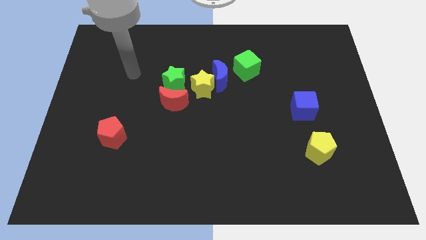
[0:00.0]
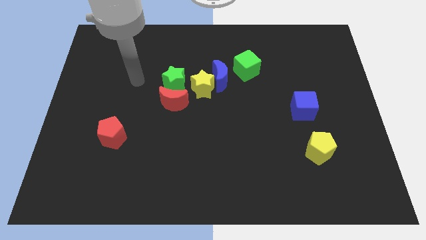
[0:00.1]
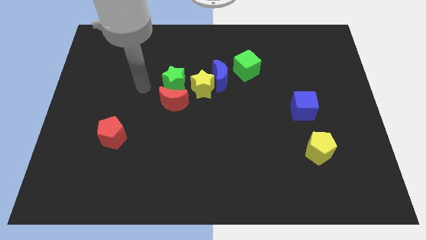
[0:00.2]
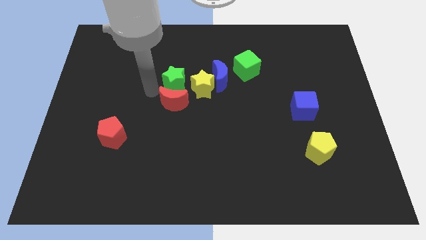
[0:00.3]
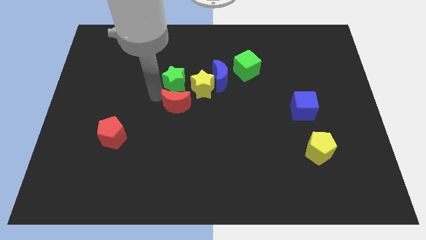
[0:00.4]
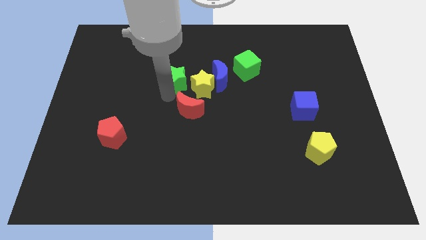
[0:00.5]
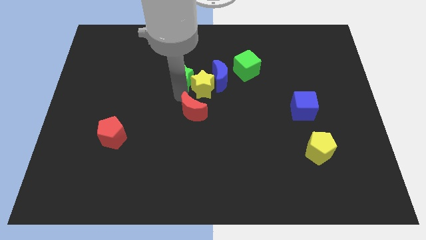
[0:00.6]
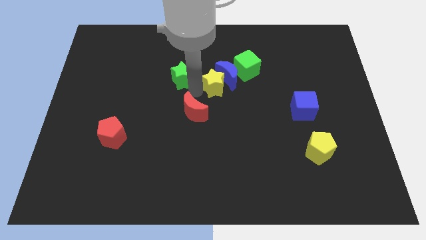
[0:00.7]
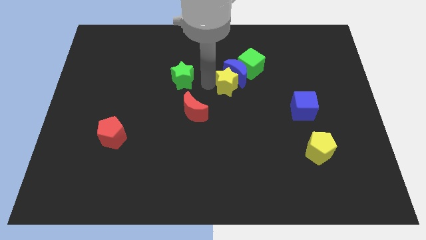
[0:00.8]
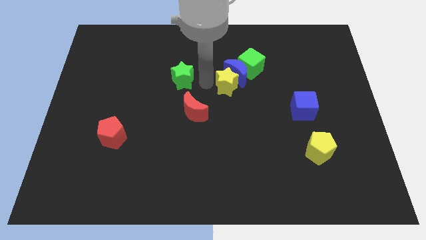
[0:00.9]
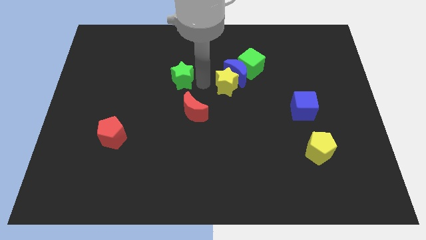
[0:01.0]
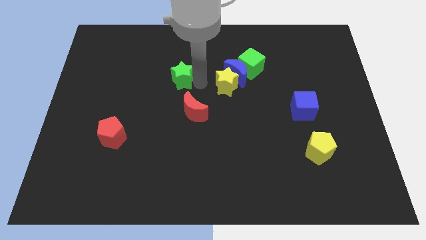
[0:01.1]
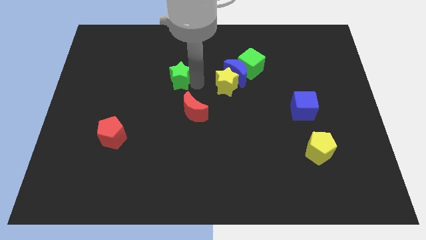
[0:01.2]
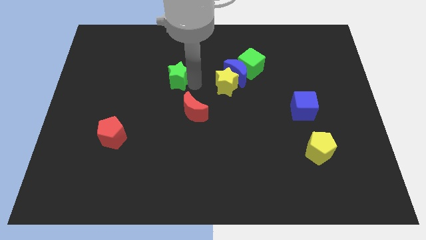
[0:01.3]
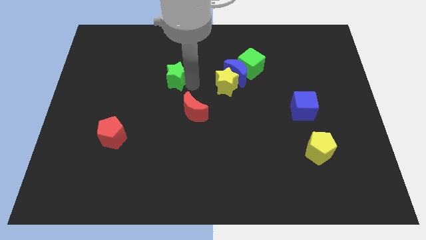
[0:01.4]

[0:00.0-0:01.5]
move the green star away from the red moon and yellow star

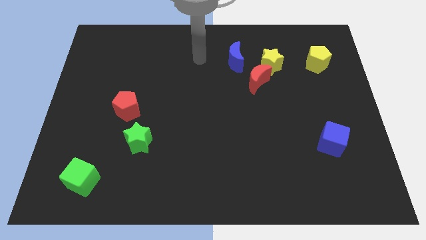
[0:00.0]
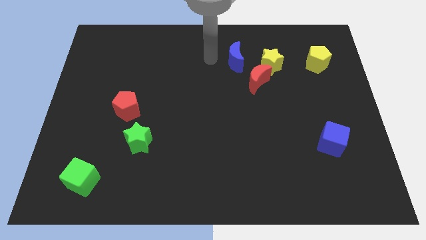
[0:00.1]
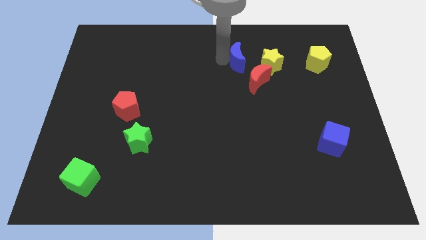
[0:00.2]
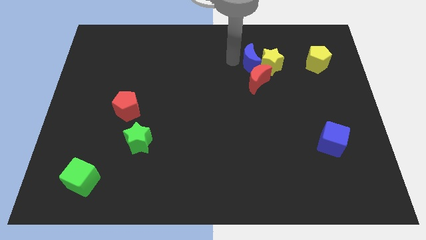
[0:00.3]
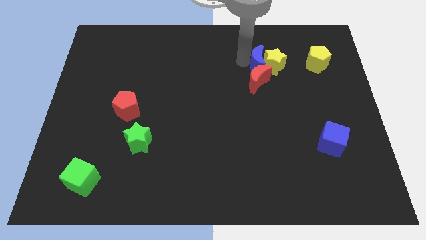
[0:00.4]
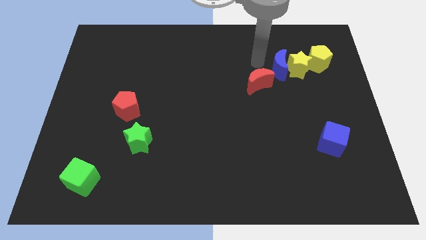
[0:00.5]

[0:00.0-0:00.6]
separate the red moon from the yellow star and blue moon

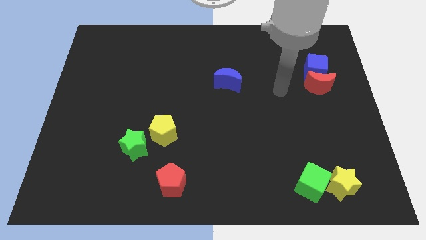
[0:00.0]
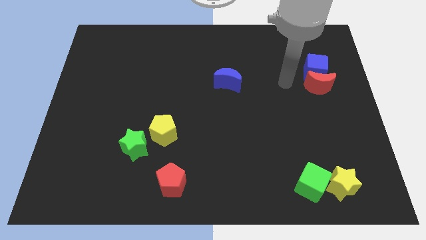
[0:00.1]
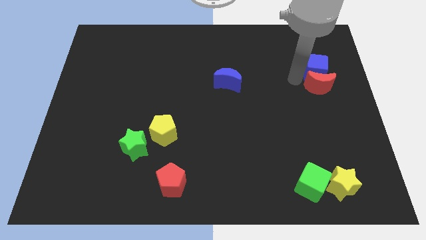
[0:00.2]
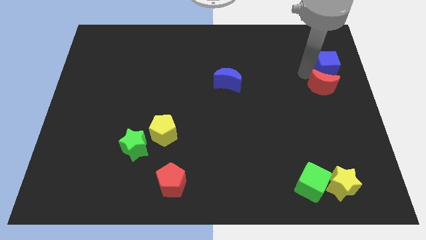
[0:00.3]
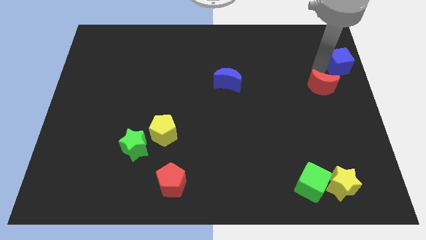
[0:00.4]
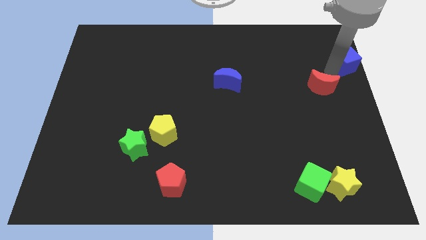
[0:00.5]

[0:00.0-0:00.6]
move the red moon away from the blue cube

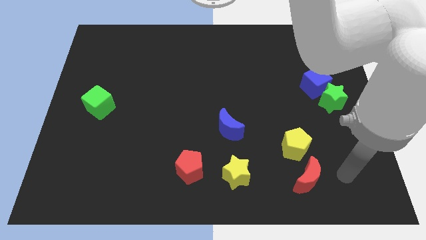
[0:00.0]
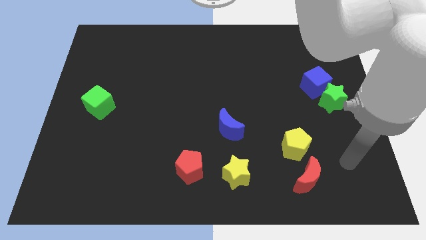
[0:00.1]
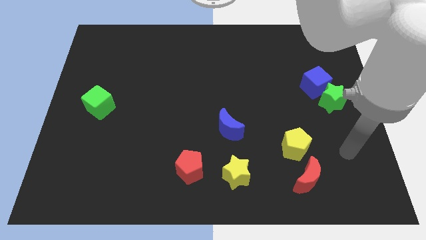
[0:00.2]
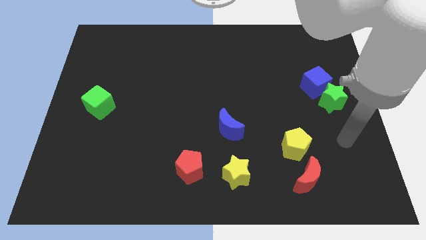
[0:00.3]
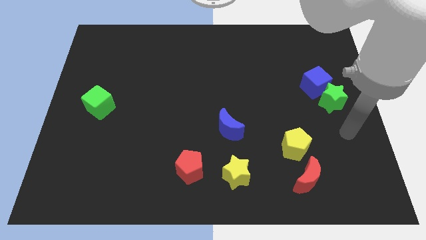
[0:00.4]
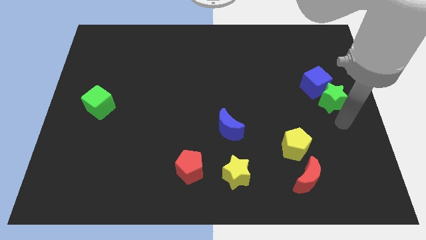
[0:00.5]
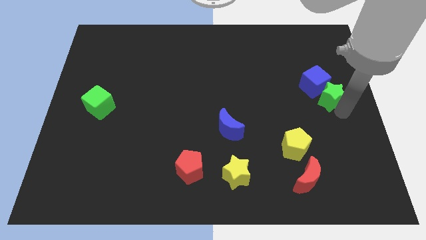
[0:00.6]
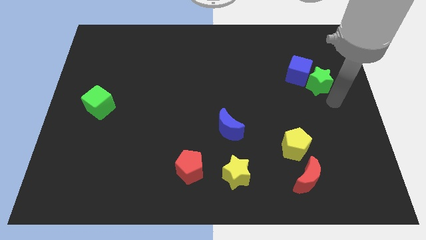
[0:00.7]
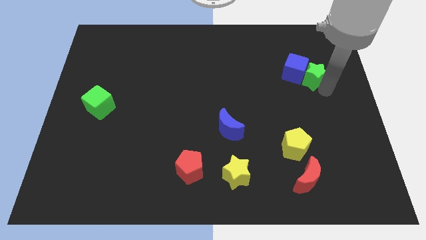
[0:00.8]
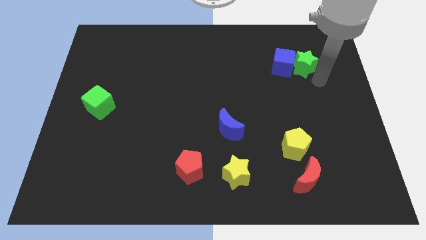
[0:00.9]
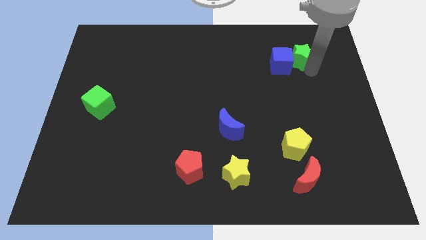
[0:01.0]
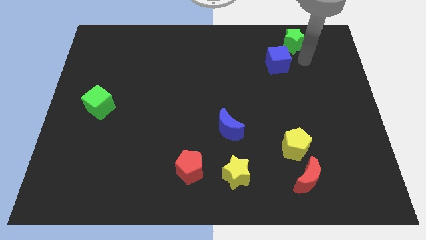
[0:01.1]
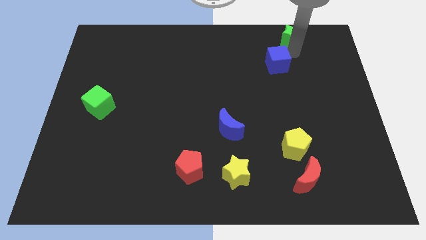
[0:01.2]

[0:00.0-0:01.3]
move the blue cube away from the green star

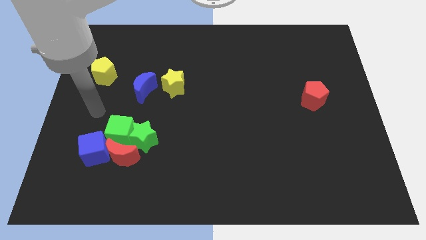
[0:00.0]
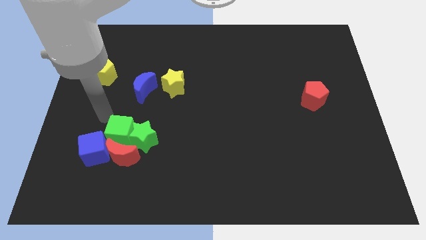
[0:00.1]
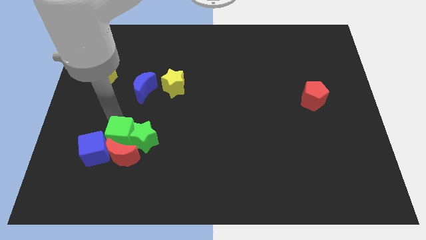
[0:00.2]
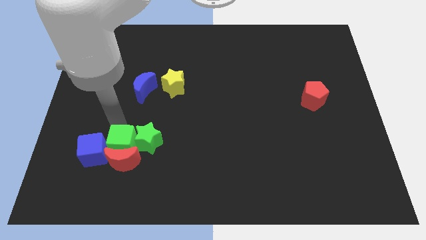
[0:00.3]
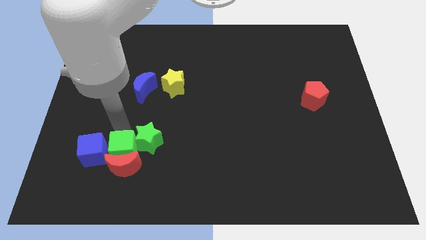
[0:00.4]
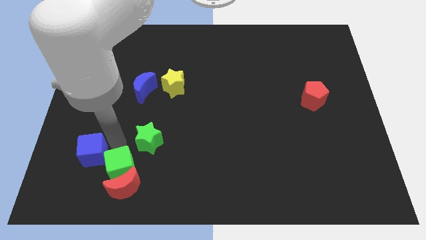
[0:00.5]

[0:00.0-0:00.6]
pull the green star apart from the green cube and red moon

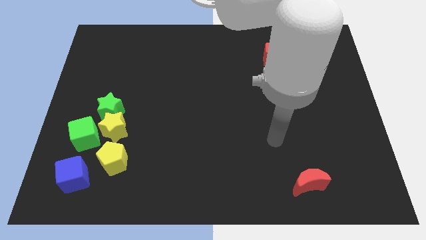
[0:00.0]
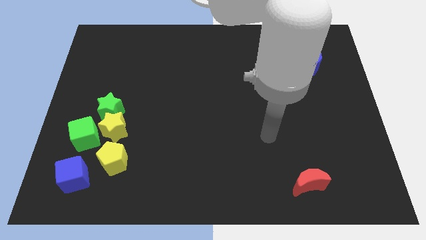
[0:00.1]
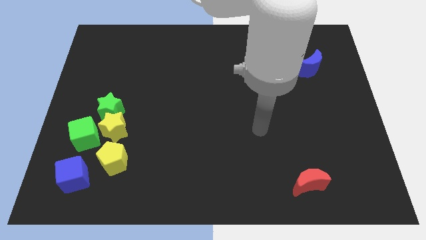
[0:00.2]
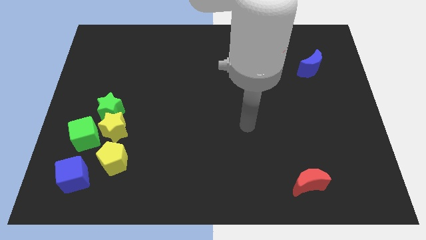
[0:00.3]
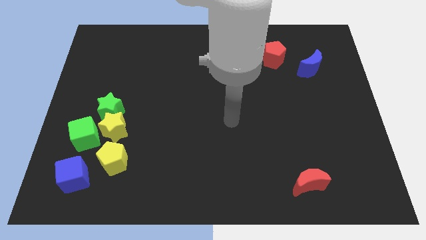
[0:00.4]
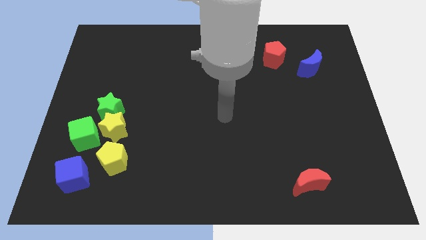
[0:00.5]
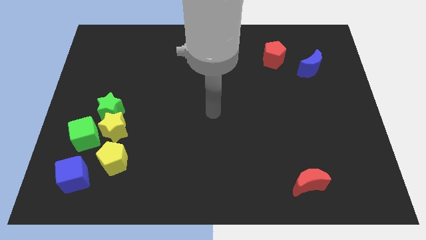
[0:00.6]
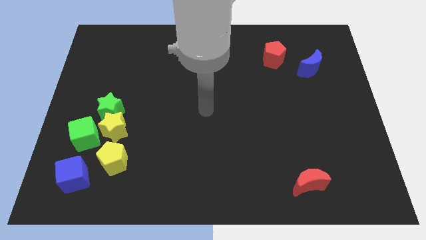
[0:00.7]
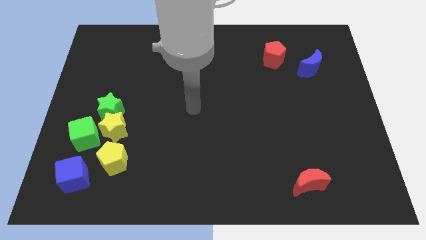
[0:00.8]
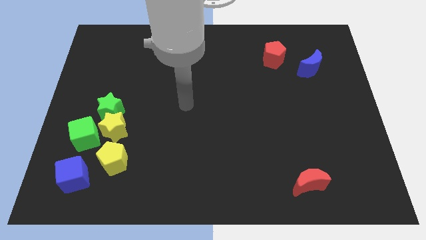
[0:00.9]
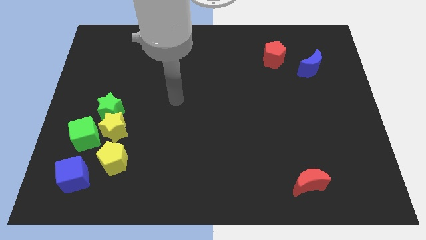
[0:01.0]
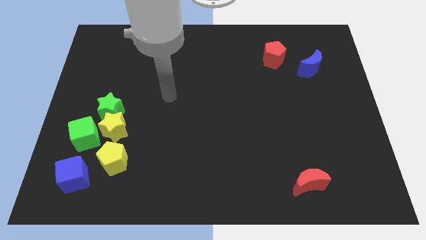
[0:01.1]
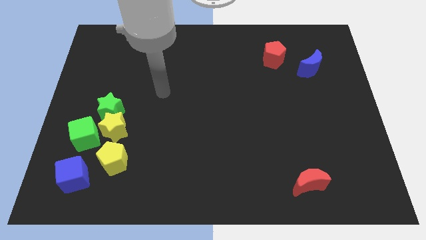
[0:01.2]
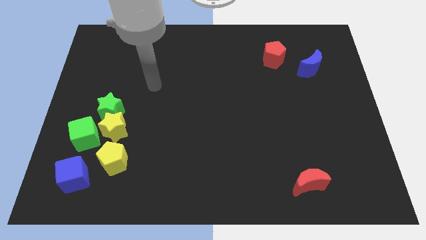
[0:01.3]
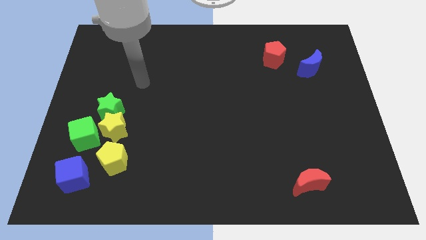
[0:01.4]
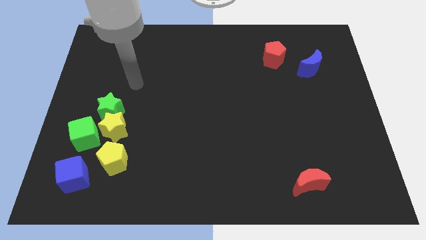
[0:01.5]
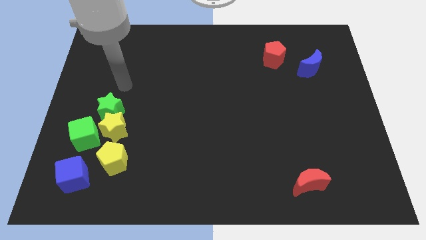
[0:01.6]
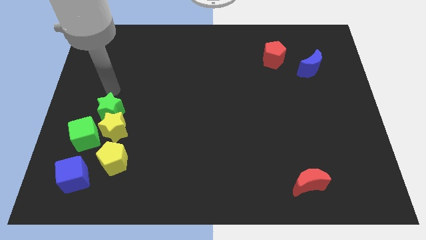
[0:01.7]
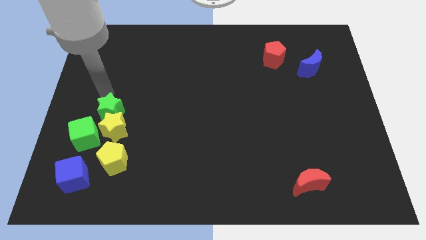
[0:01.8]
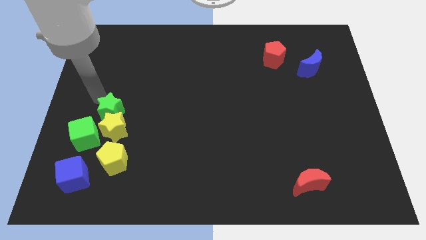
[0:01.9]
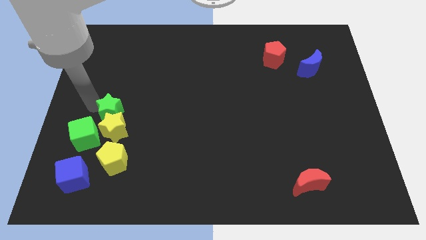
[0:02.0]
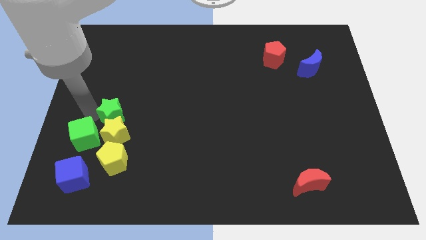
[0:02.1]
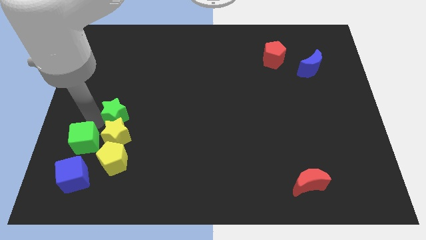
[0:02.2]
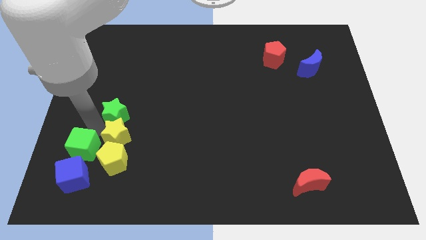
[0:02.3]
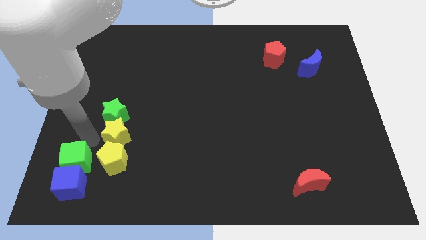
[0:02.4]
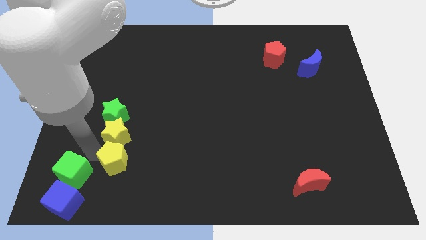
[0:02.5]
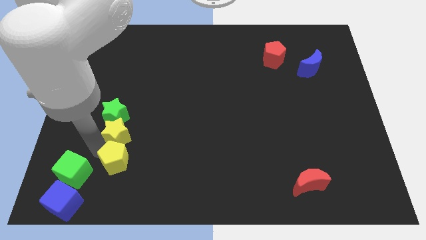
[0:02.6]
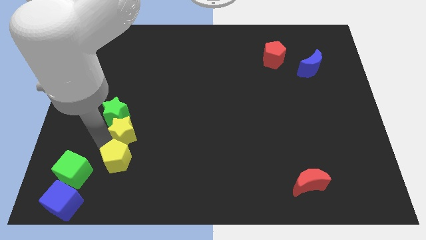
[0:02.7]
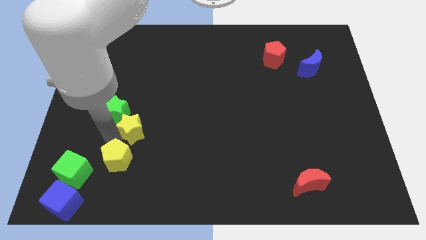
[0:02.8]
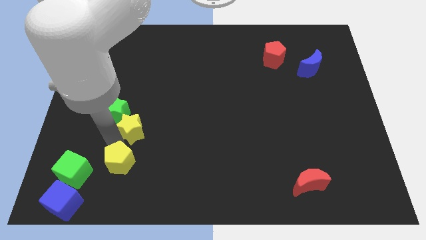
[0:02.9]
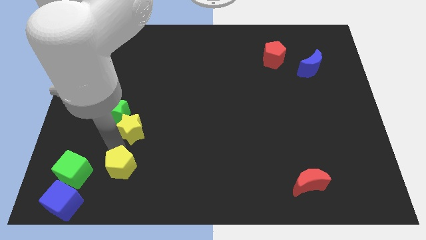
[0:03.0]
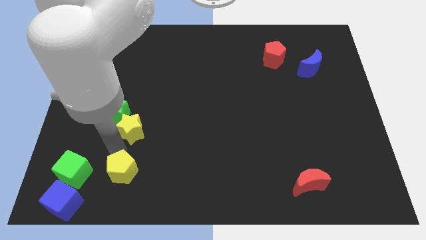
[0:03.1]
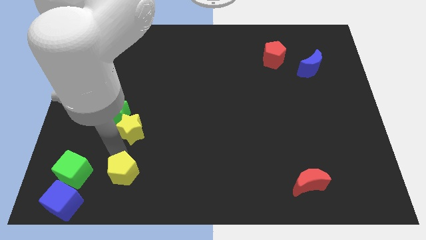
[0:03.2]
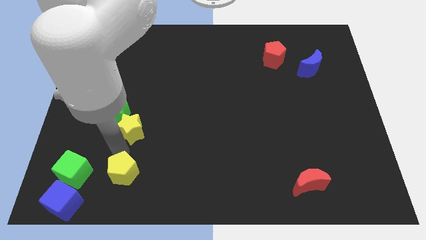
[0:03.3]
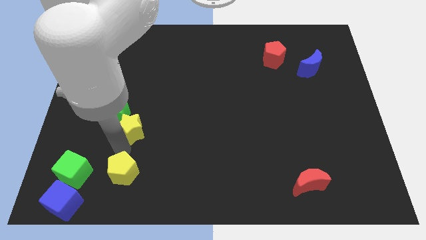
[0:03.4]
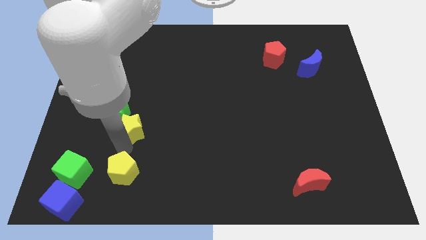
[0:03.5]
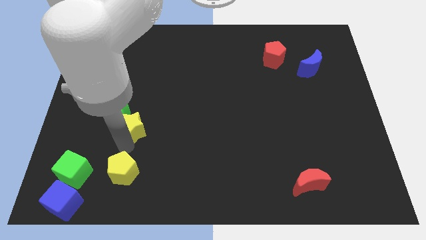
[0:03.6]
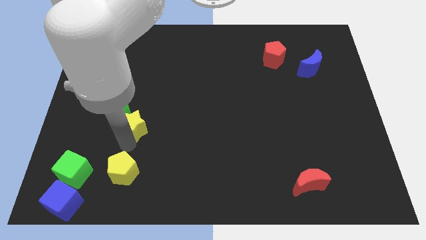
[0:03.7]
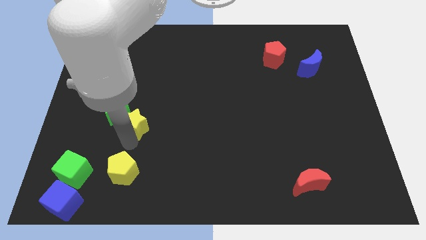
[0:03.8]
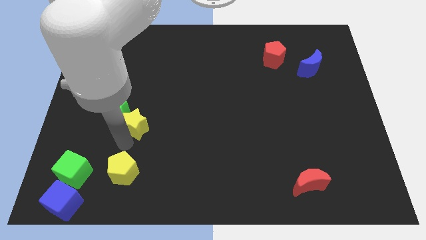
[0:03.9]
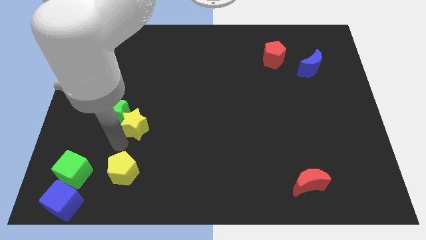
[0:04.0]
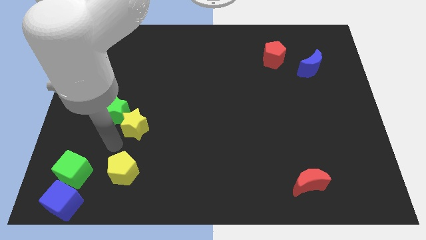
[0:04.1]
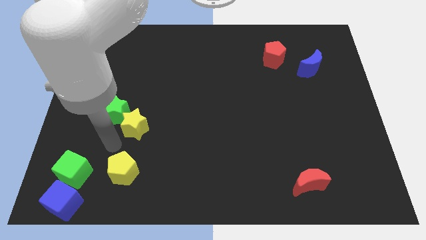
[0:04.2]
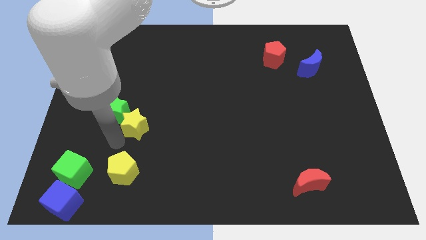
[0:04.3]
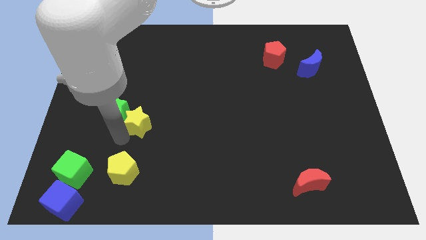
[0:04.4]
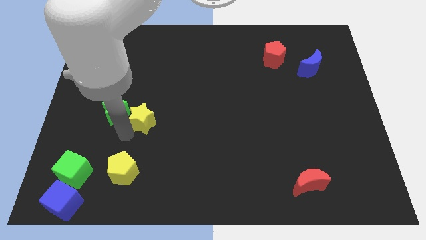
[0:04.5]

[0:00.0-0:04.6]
move the yellow star away from the group

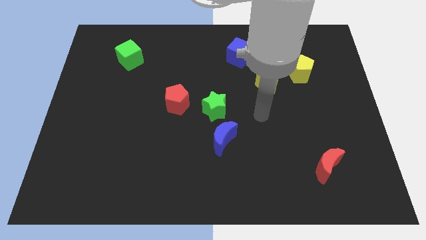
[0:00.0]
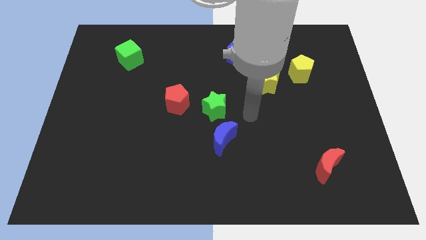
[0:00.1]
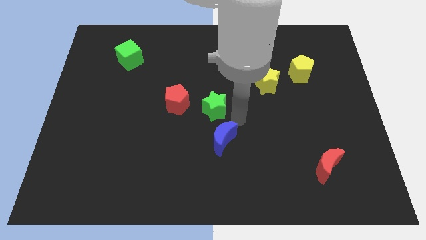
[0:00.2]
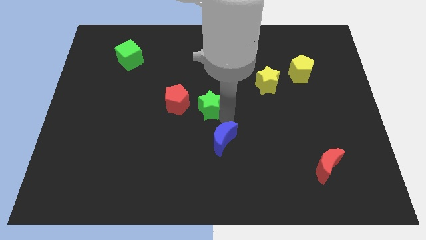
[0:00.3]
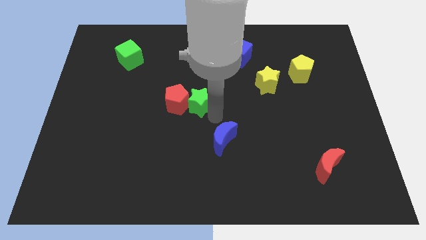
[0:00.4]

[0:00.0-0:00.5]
move the blue moon away from the green star
